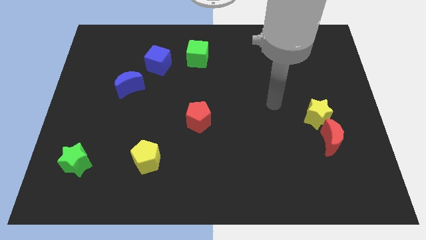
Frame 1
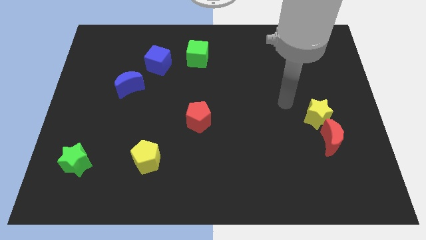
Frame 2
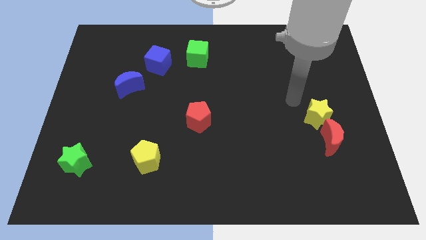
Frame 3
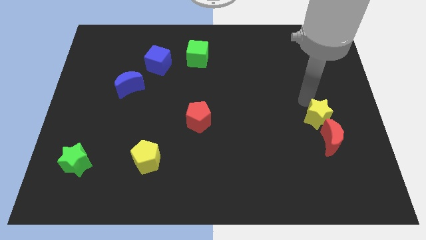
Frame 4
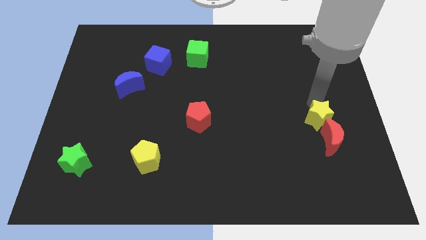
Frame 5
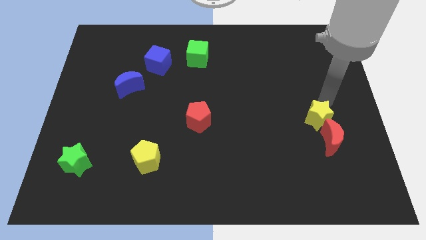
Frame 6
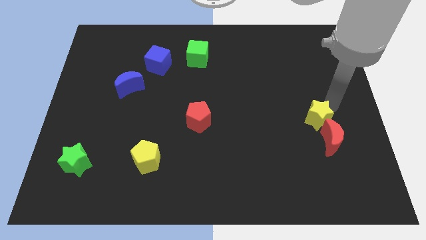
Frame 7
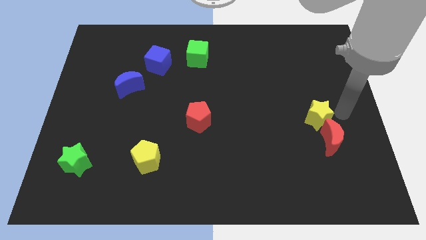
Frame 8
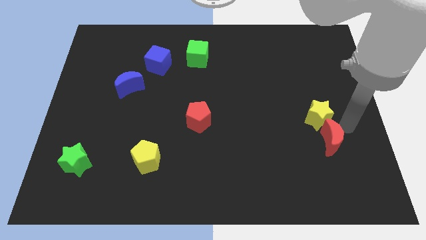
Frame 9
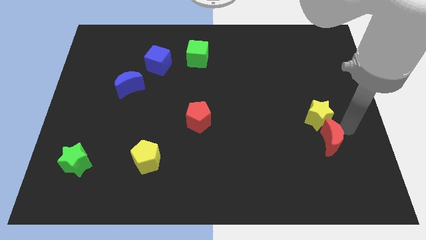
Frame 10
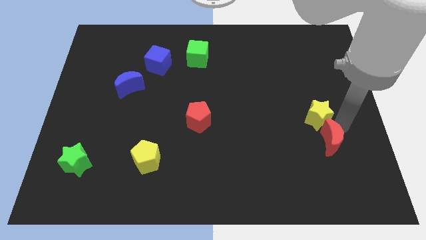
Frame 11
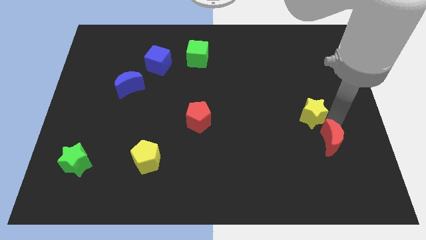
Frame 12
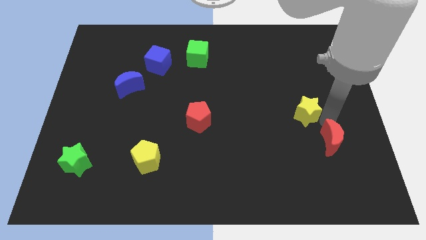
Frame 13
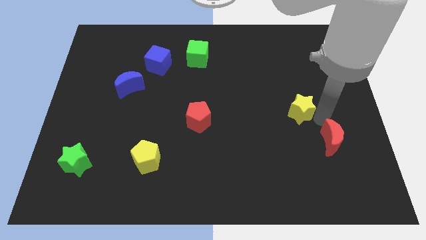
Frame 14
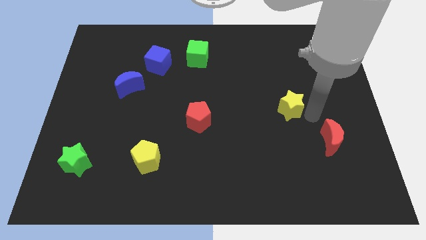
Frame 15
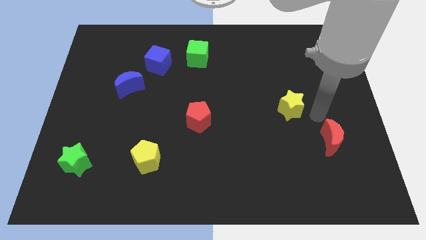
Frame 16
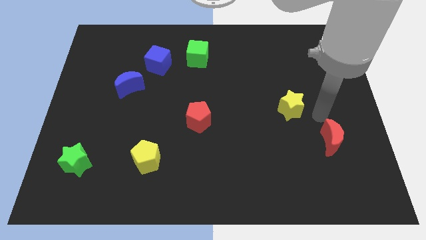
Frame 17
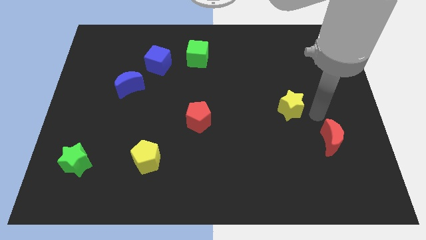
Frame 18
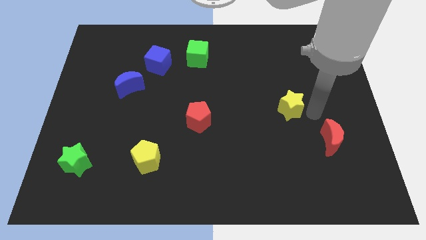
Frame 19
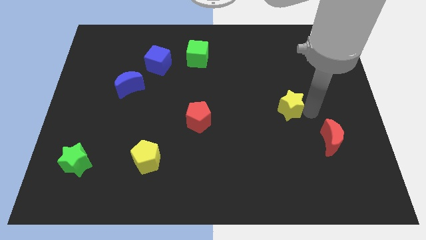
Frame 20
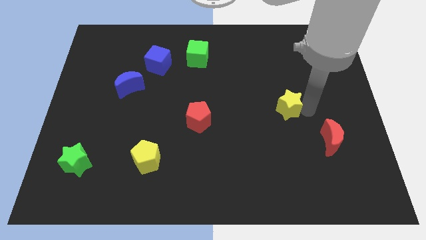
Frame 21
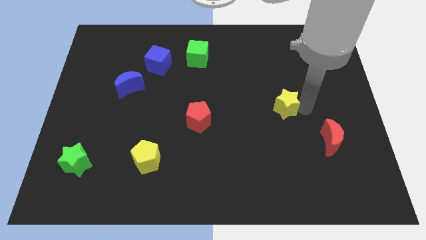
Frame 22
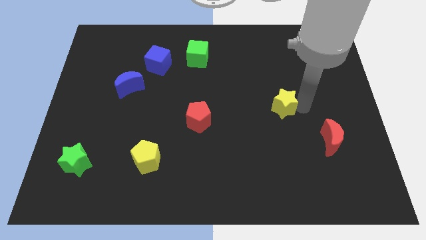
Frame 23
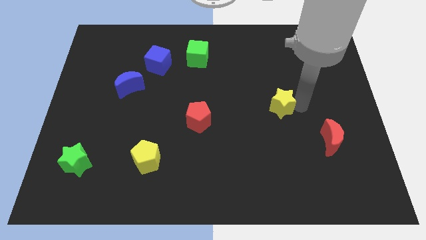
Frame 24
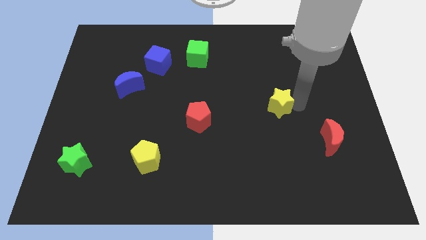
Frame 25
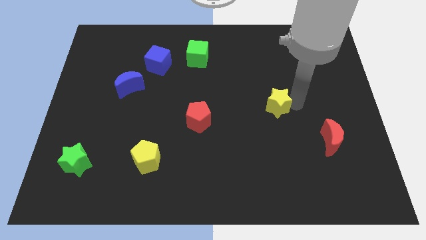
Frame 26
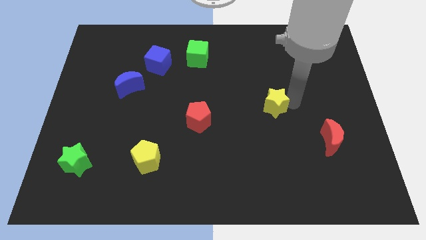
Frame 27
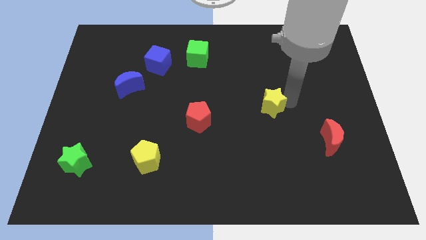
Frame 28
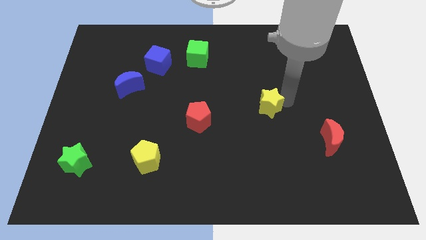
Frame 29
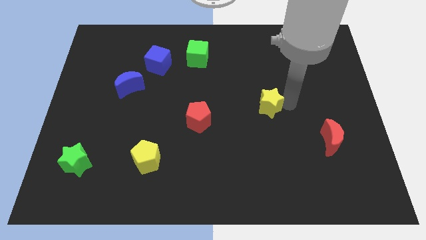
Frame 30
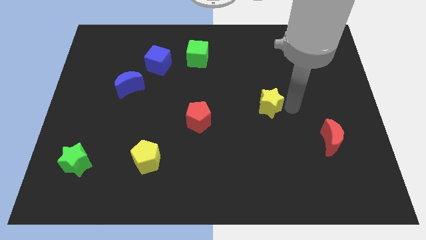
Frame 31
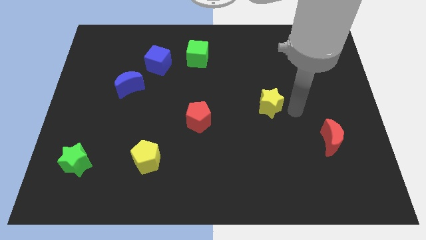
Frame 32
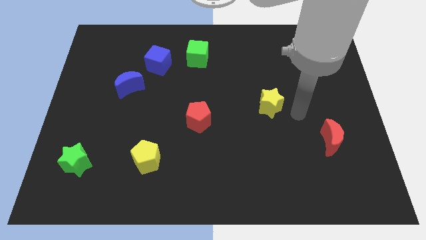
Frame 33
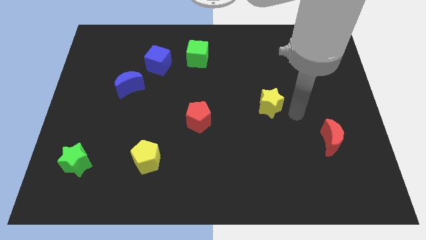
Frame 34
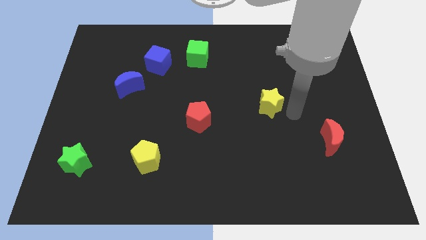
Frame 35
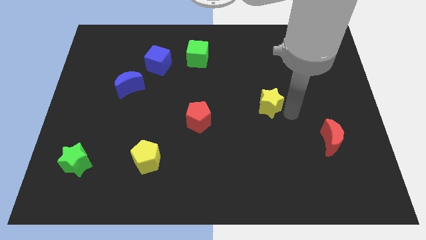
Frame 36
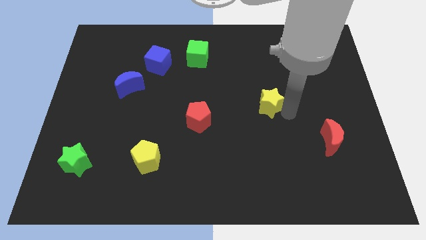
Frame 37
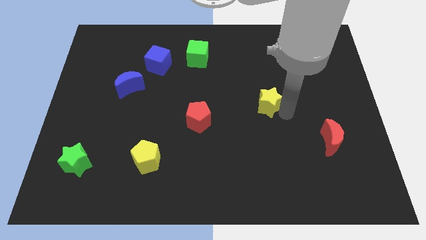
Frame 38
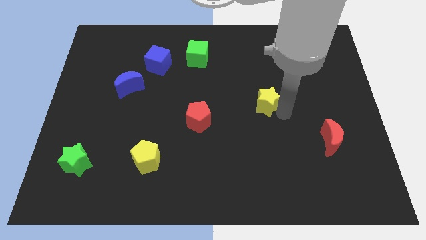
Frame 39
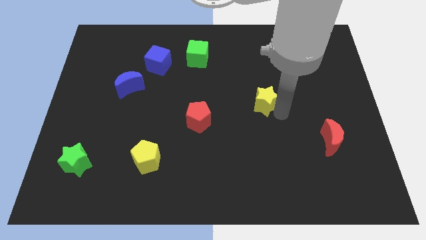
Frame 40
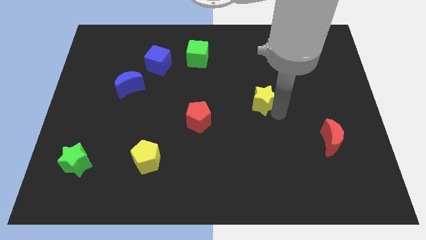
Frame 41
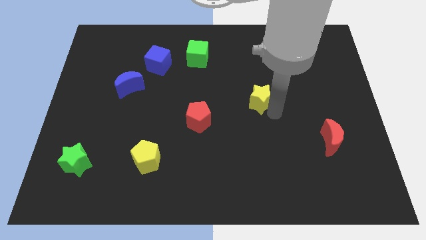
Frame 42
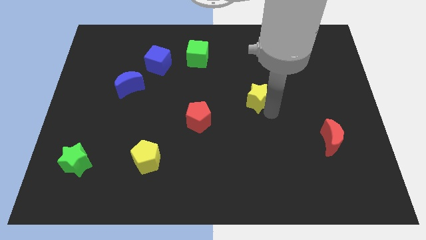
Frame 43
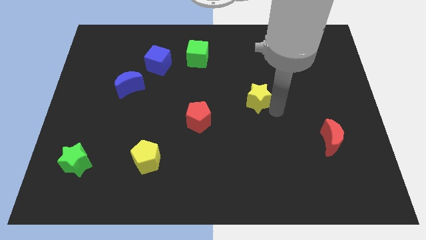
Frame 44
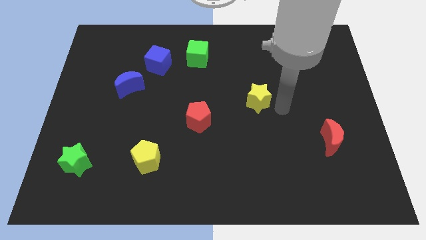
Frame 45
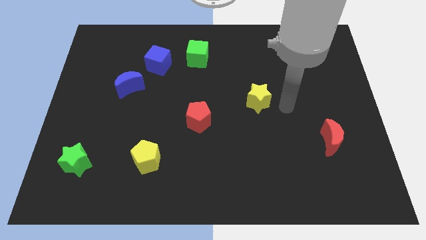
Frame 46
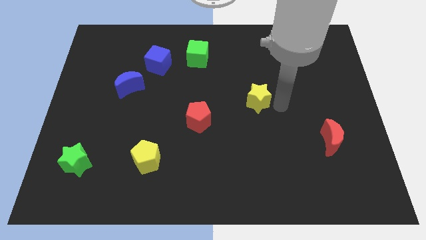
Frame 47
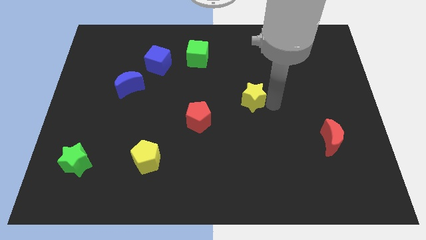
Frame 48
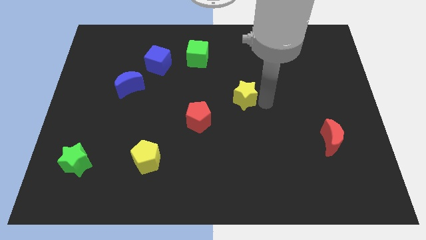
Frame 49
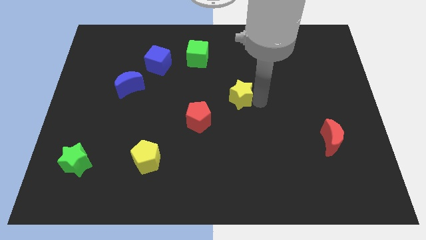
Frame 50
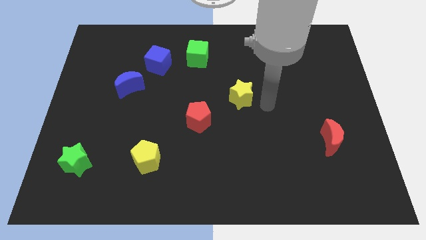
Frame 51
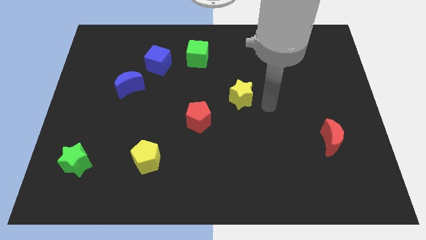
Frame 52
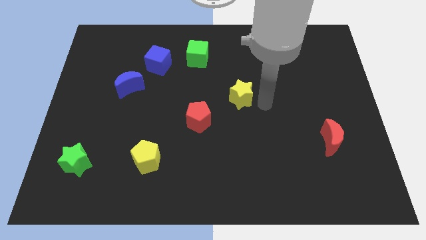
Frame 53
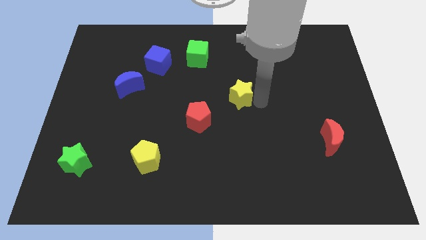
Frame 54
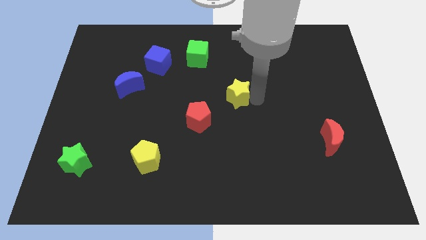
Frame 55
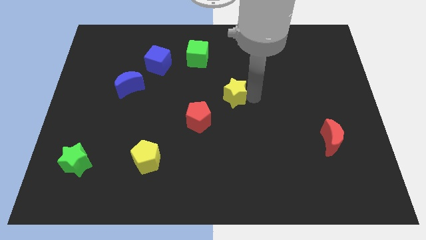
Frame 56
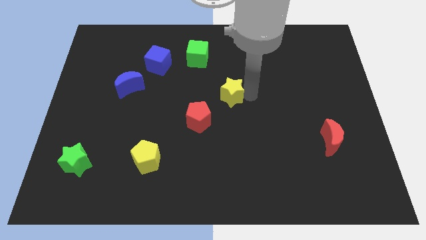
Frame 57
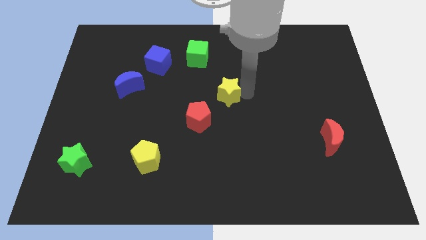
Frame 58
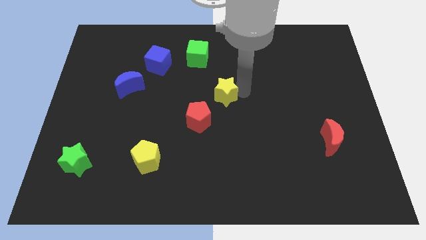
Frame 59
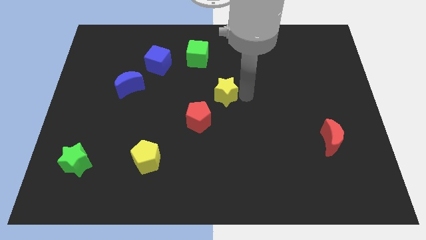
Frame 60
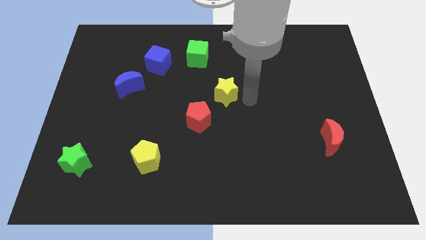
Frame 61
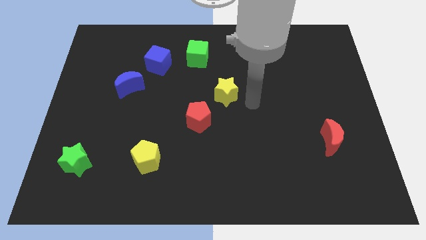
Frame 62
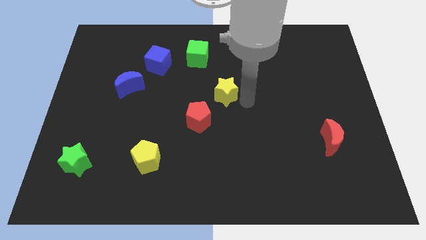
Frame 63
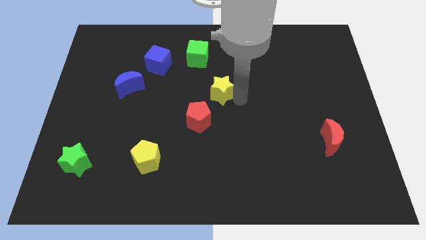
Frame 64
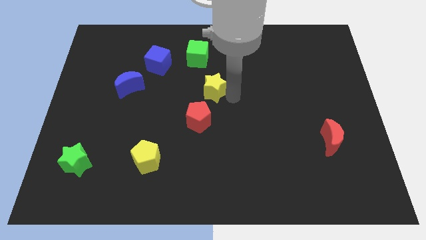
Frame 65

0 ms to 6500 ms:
slide the yellow star to the top side of the red pentagon

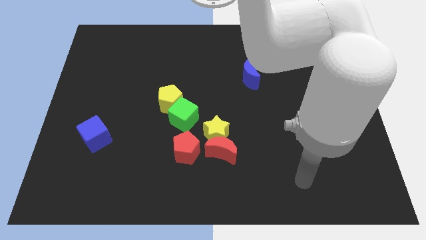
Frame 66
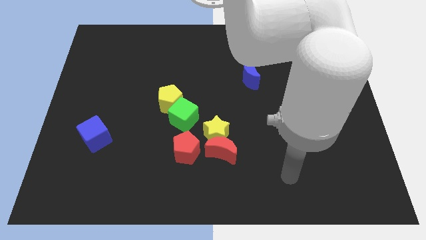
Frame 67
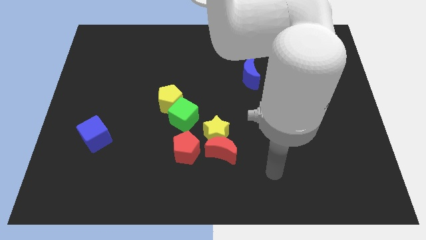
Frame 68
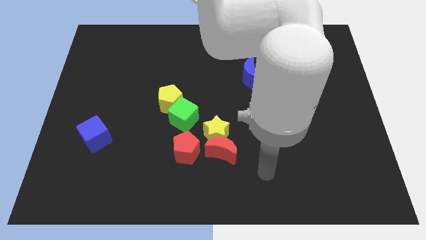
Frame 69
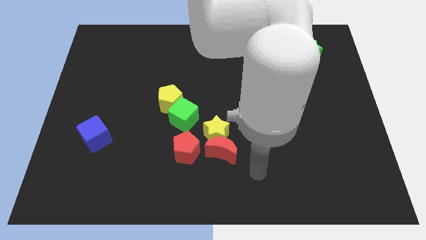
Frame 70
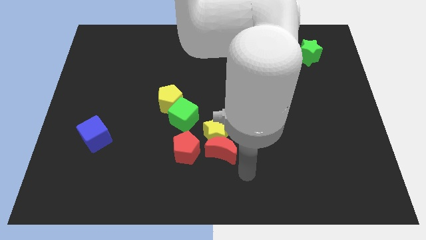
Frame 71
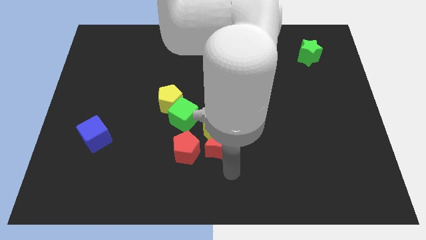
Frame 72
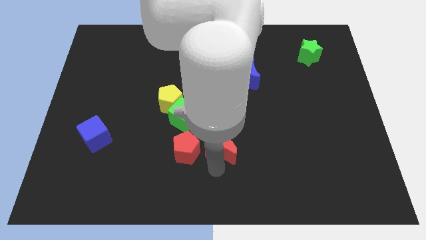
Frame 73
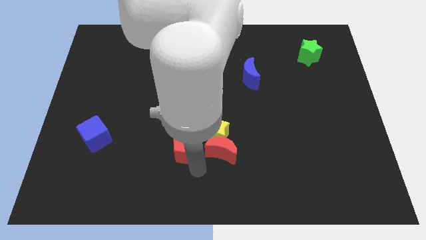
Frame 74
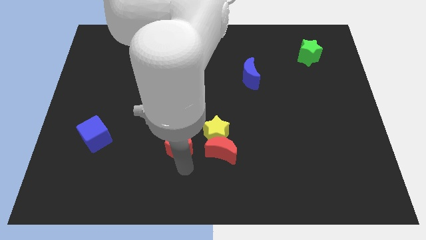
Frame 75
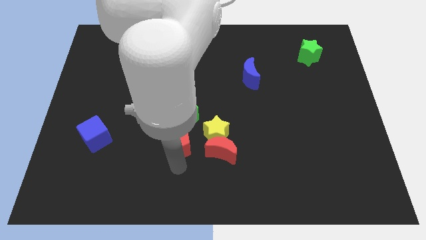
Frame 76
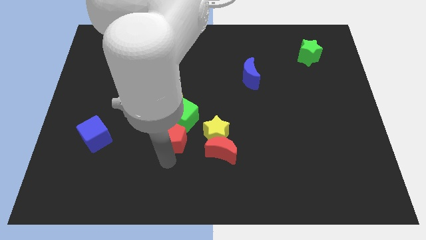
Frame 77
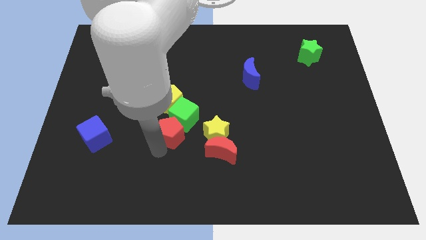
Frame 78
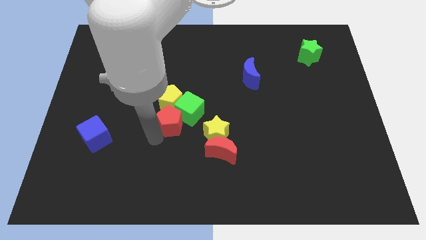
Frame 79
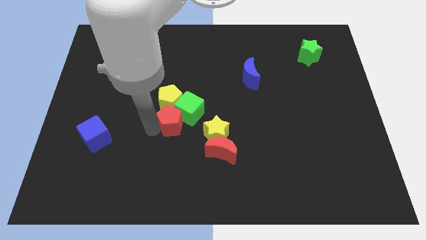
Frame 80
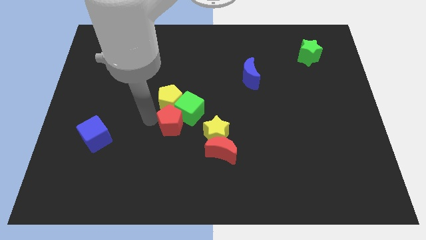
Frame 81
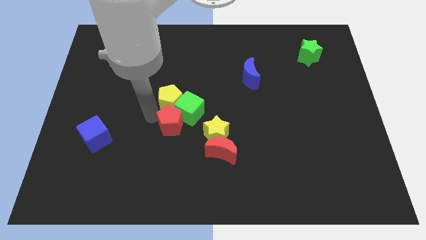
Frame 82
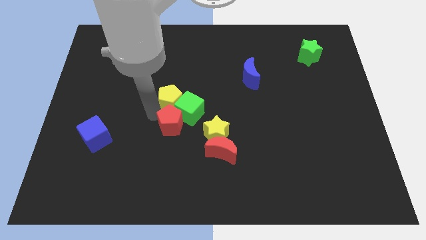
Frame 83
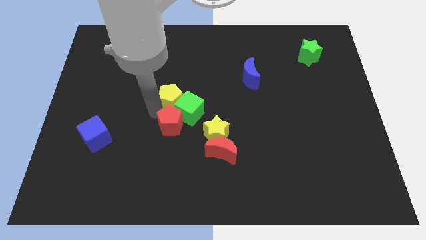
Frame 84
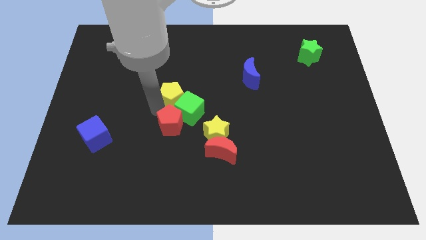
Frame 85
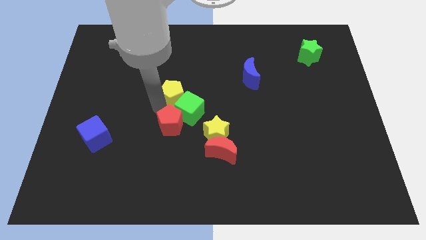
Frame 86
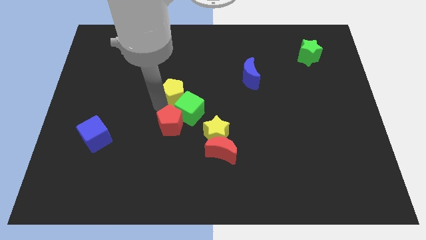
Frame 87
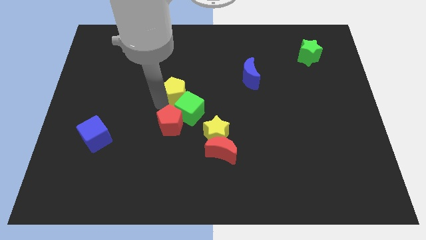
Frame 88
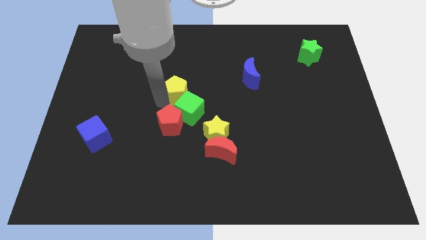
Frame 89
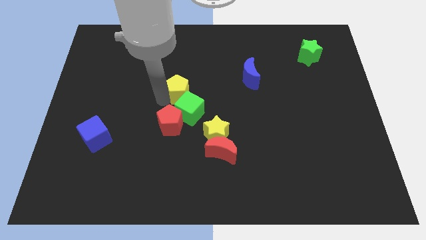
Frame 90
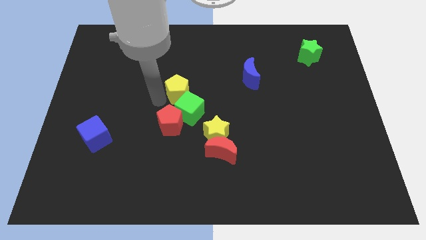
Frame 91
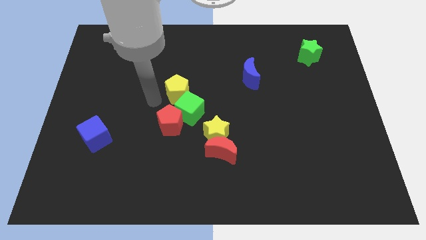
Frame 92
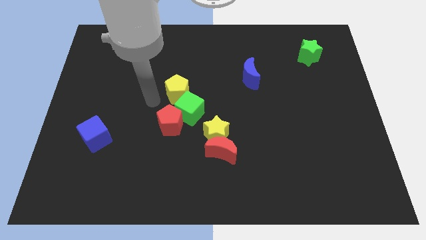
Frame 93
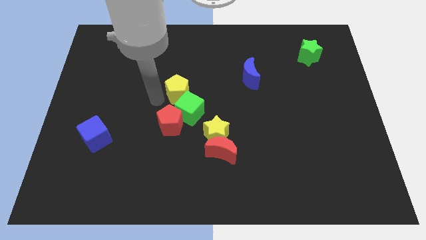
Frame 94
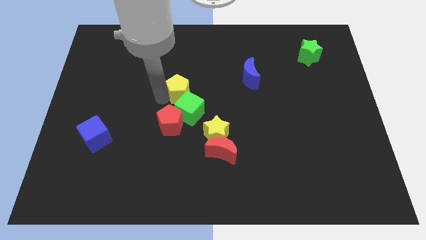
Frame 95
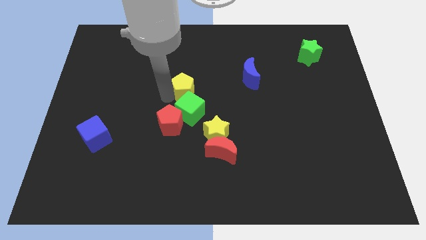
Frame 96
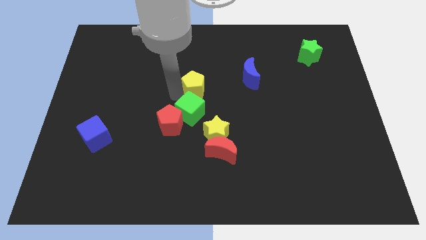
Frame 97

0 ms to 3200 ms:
slide the yellow pentagon to the left side of the blue moon
